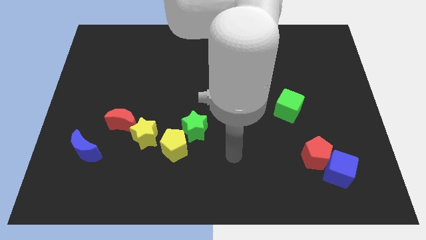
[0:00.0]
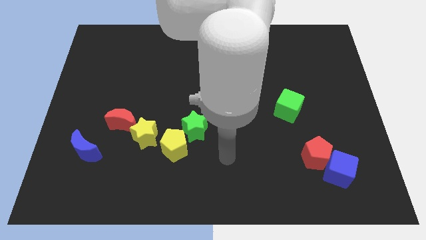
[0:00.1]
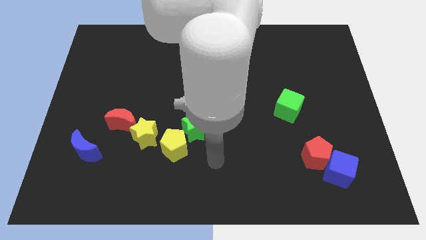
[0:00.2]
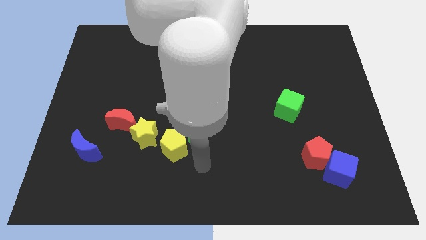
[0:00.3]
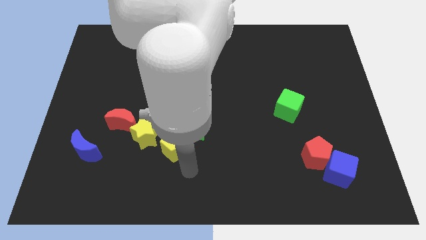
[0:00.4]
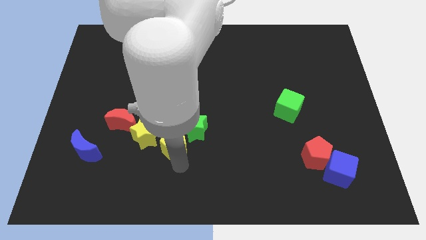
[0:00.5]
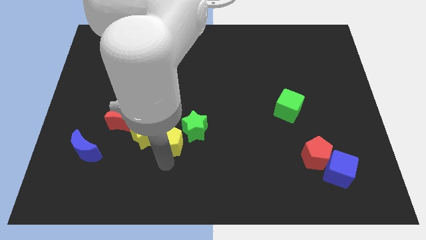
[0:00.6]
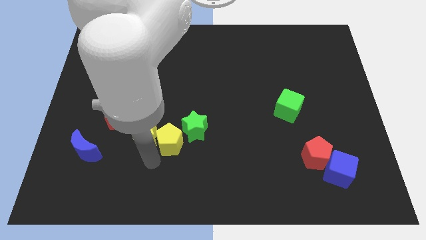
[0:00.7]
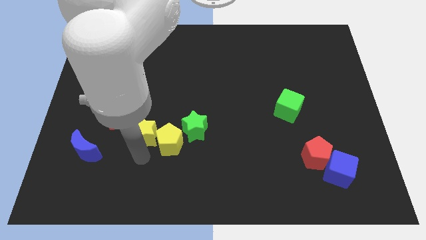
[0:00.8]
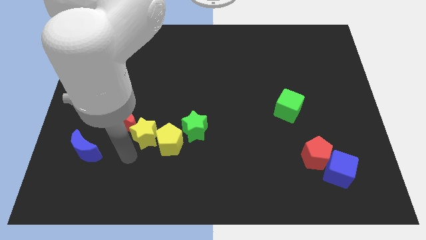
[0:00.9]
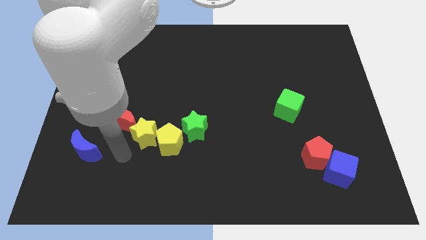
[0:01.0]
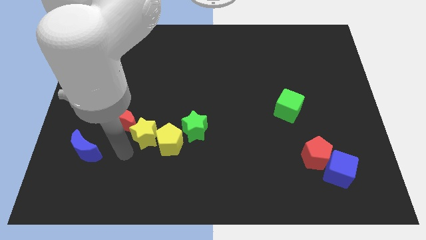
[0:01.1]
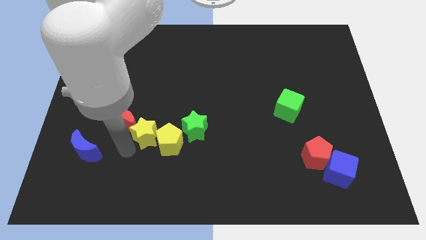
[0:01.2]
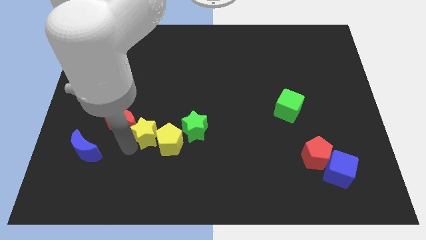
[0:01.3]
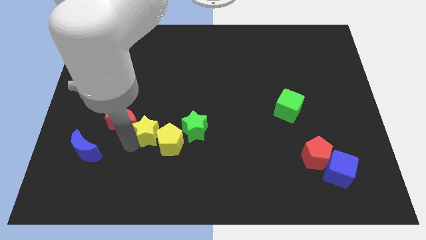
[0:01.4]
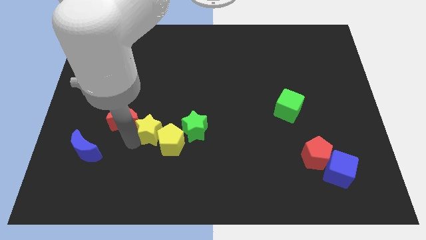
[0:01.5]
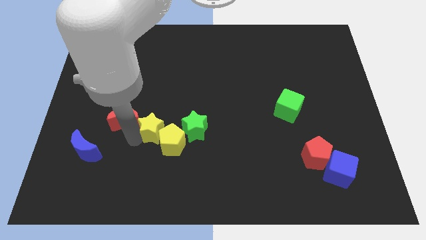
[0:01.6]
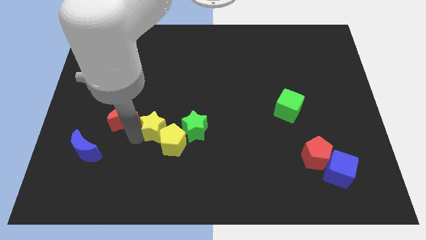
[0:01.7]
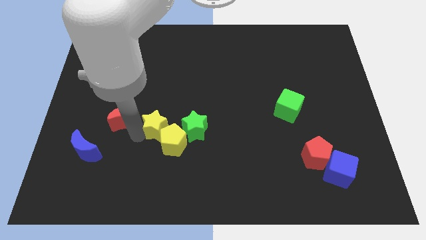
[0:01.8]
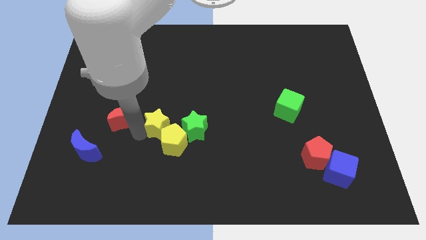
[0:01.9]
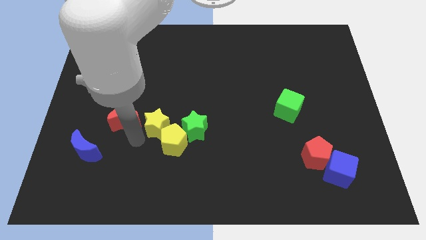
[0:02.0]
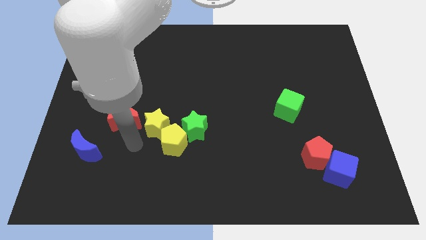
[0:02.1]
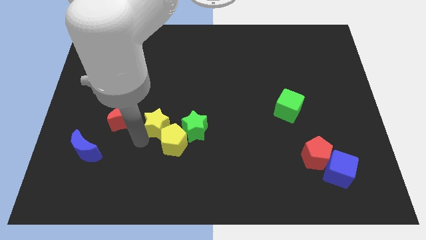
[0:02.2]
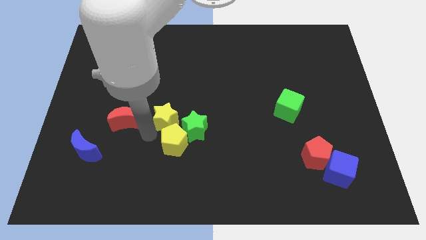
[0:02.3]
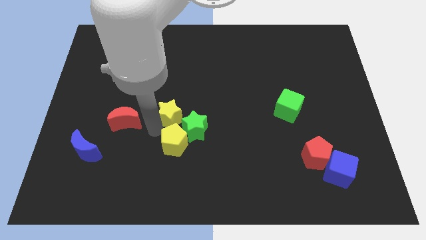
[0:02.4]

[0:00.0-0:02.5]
slightly slide the yellow star upwards and right

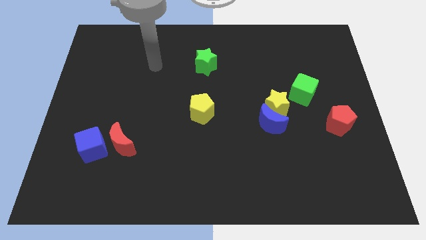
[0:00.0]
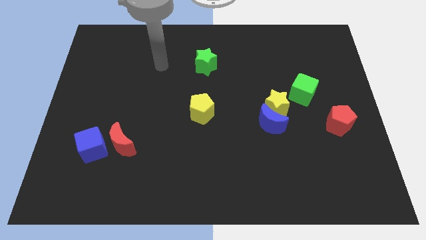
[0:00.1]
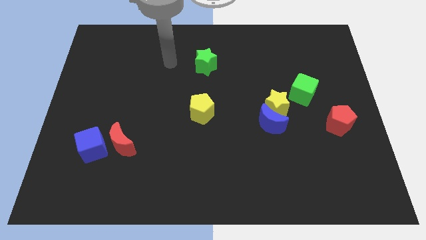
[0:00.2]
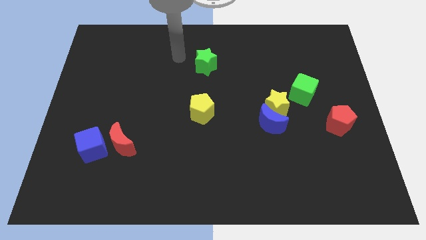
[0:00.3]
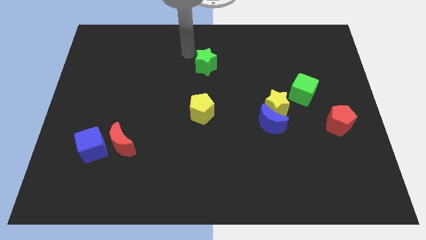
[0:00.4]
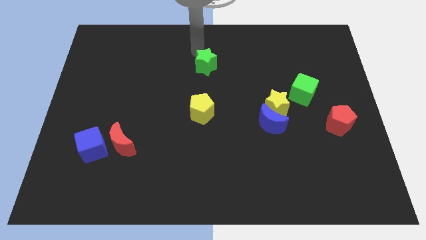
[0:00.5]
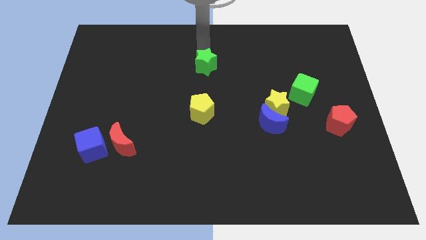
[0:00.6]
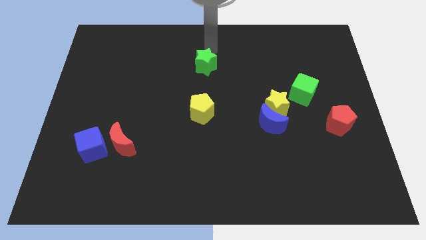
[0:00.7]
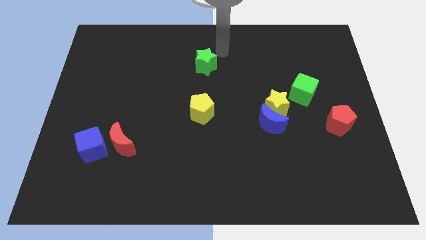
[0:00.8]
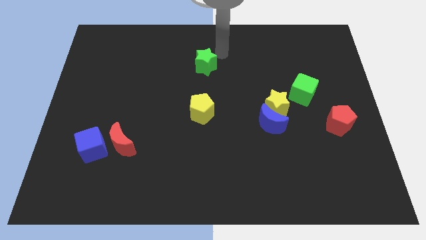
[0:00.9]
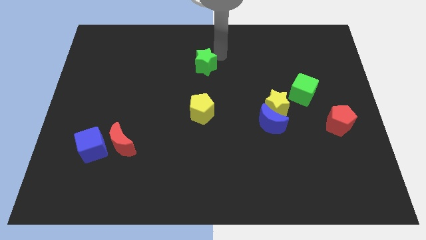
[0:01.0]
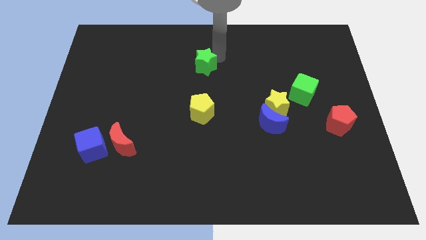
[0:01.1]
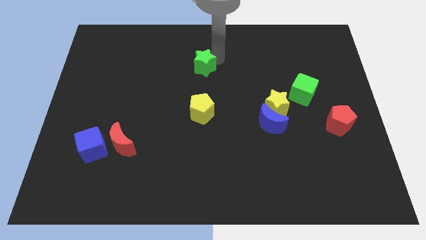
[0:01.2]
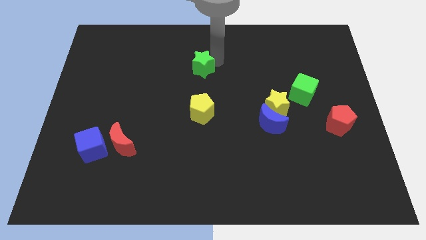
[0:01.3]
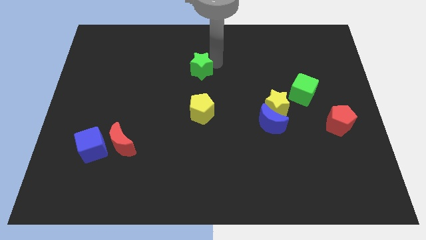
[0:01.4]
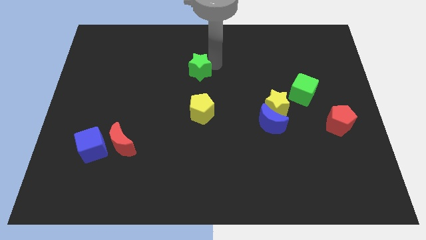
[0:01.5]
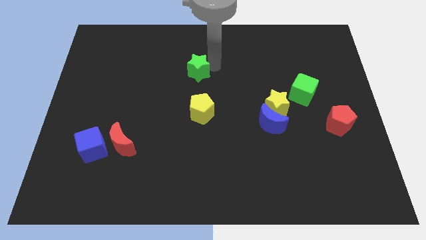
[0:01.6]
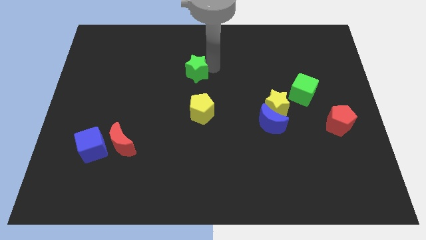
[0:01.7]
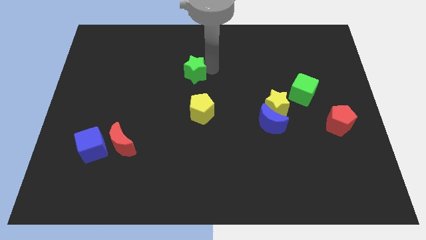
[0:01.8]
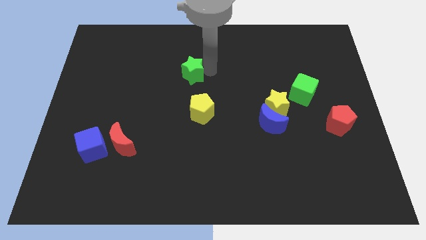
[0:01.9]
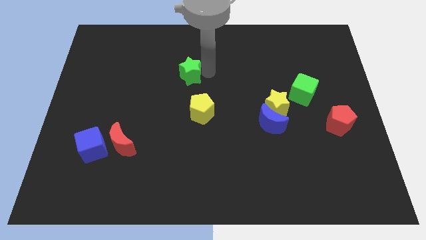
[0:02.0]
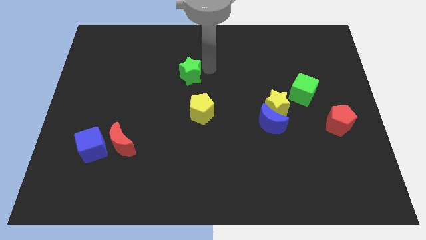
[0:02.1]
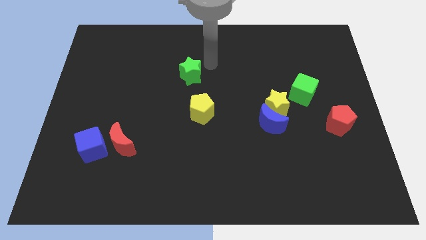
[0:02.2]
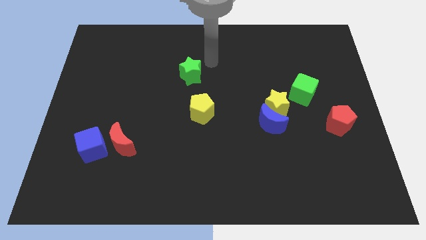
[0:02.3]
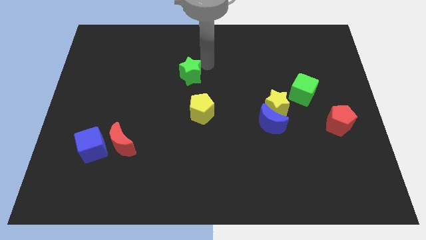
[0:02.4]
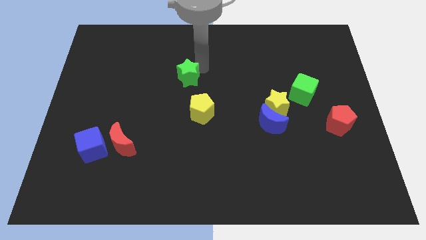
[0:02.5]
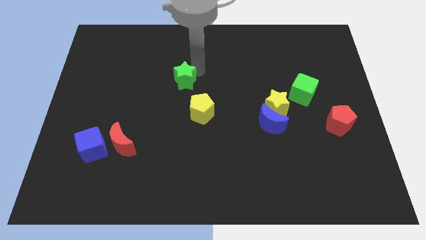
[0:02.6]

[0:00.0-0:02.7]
move the green star a bit diagonally down and to the left

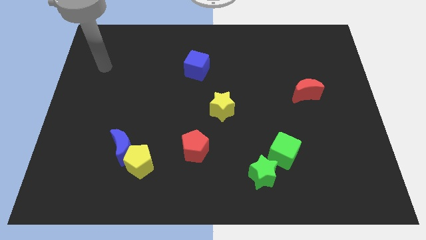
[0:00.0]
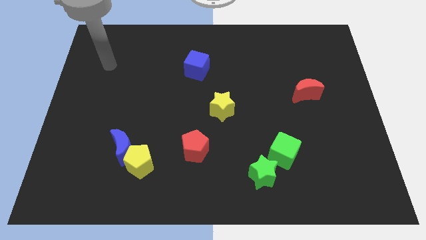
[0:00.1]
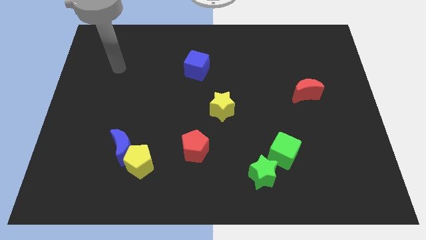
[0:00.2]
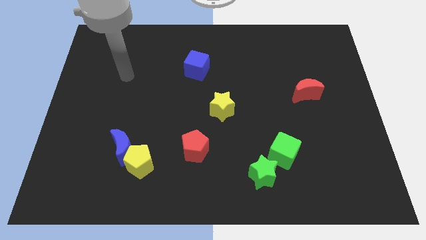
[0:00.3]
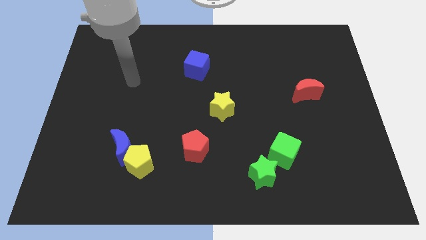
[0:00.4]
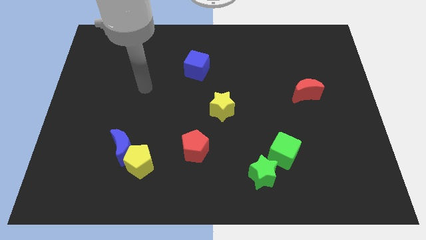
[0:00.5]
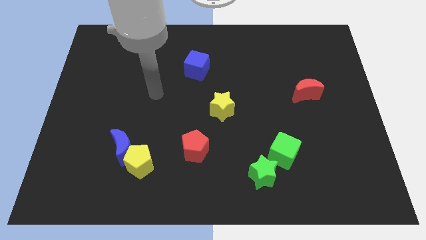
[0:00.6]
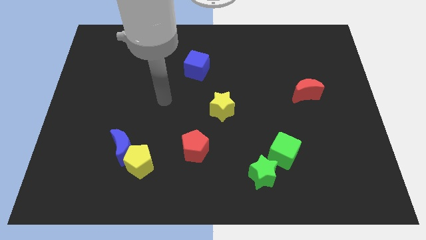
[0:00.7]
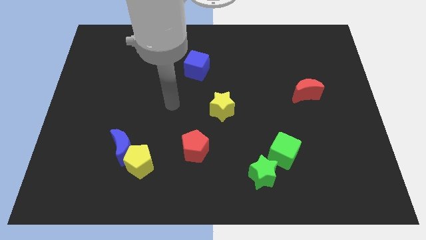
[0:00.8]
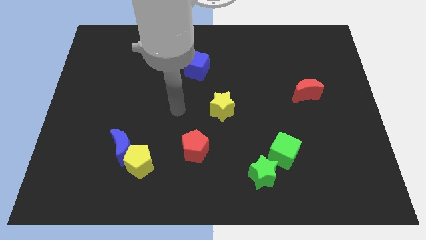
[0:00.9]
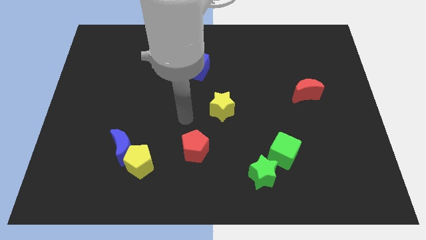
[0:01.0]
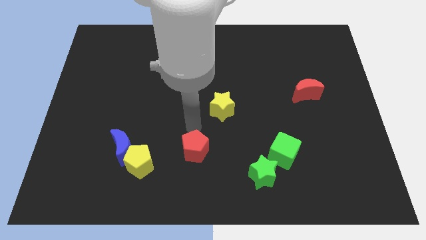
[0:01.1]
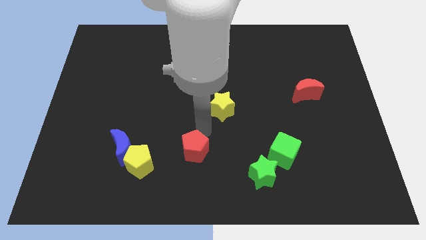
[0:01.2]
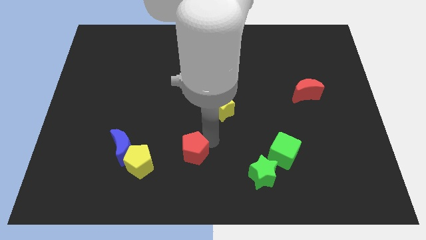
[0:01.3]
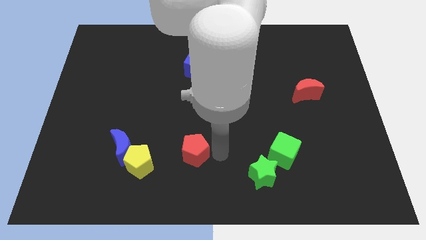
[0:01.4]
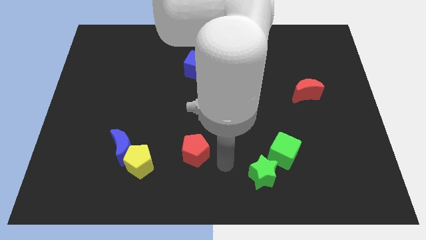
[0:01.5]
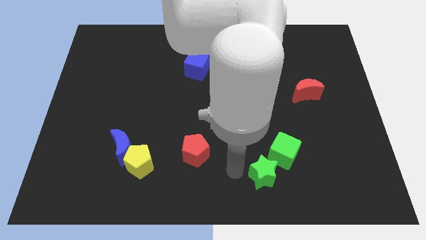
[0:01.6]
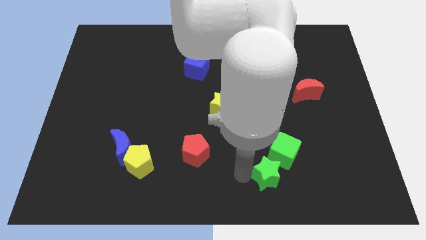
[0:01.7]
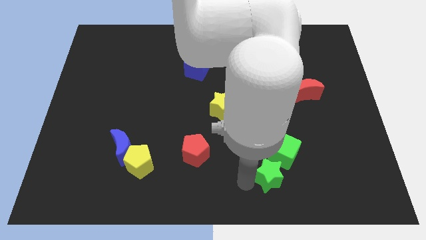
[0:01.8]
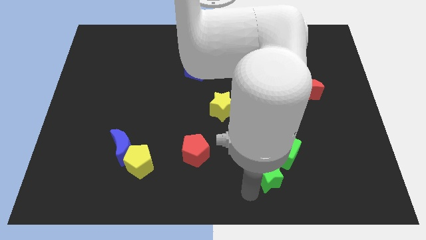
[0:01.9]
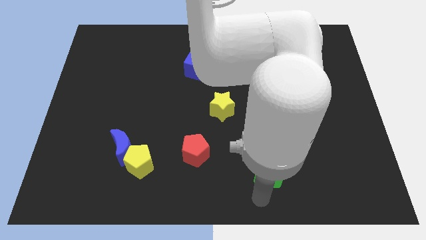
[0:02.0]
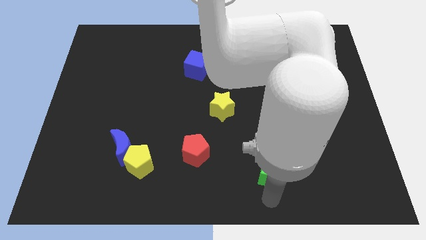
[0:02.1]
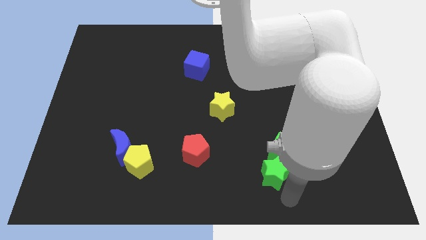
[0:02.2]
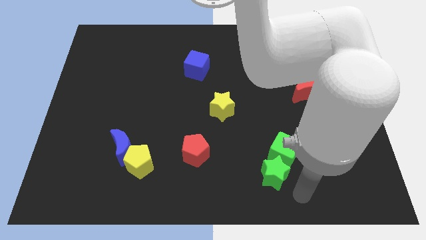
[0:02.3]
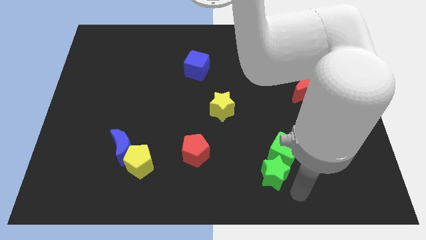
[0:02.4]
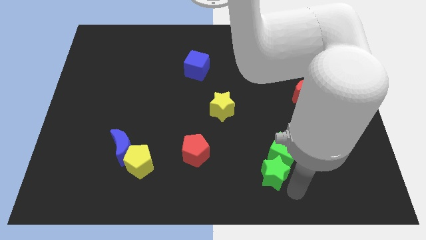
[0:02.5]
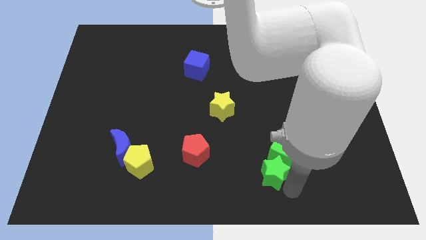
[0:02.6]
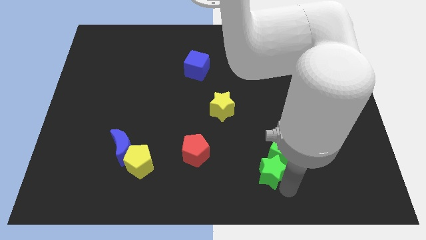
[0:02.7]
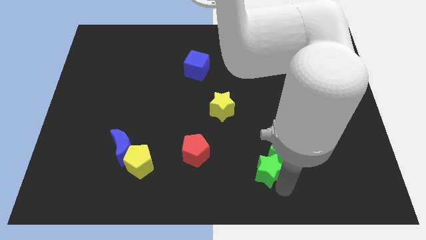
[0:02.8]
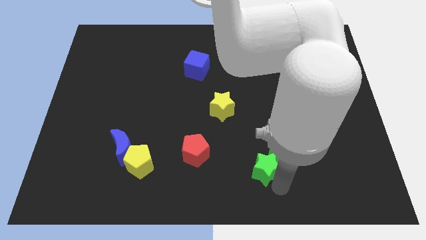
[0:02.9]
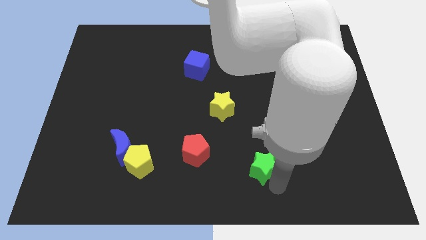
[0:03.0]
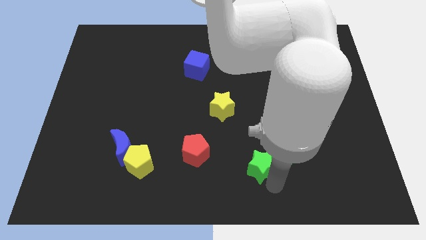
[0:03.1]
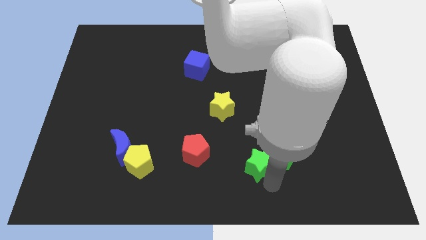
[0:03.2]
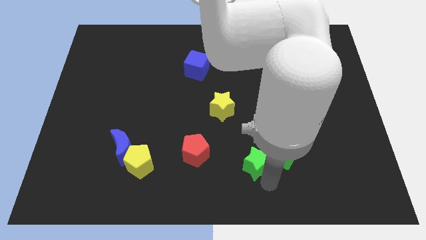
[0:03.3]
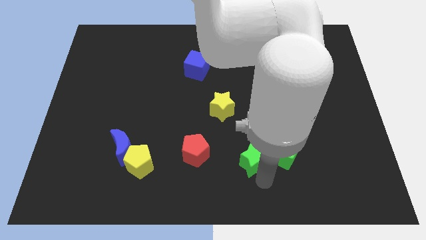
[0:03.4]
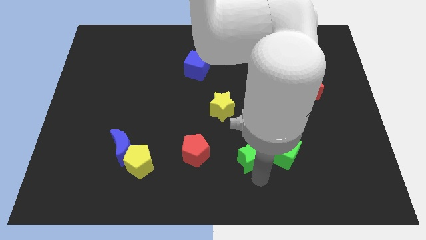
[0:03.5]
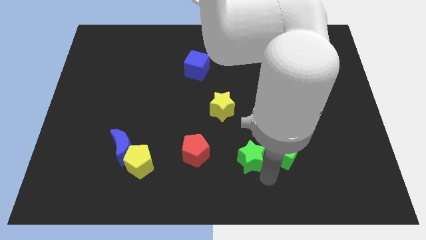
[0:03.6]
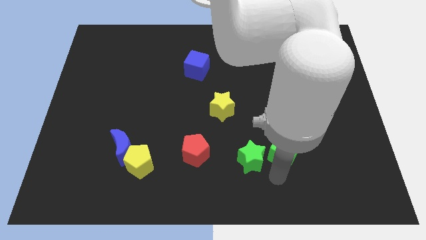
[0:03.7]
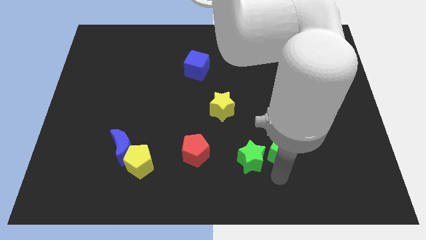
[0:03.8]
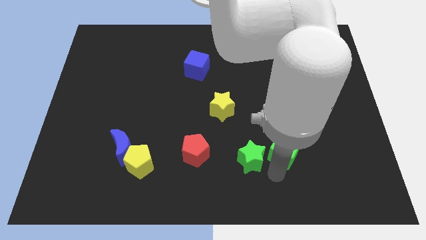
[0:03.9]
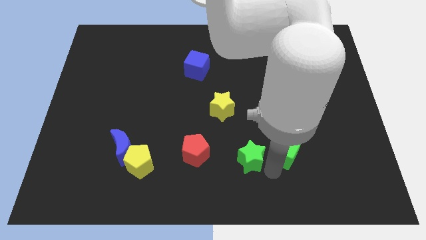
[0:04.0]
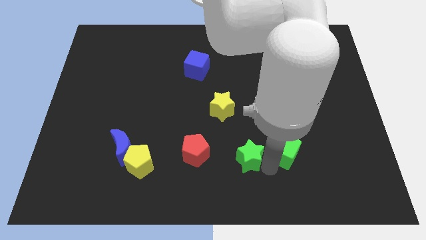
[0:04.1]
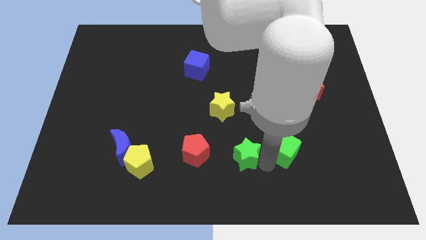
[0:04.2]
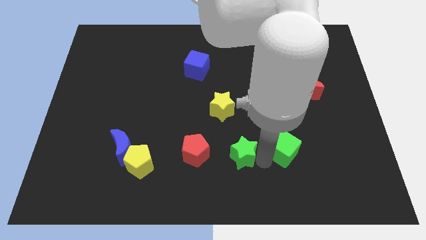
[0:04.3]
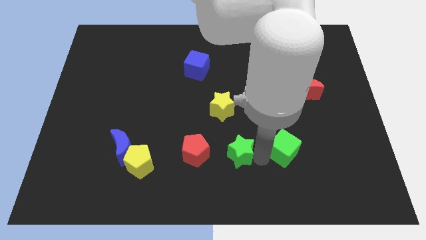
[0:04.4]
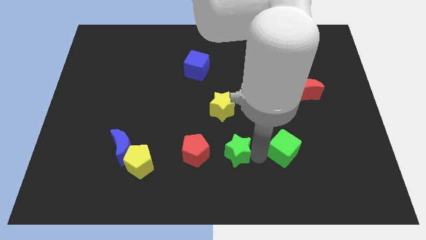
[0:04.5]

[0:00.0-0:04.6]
push the green star up and left diagonally a little
